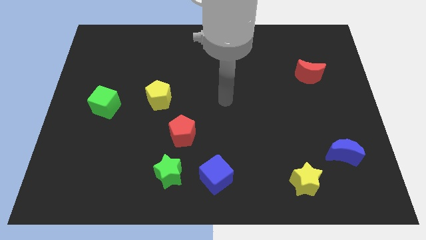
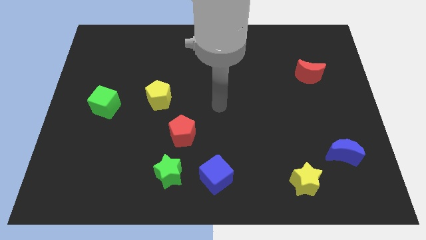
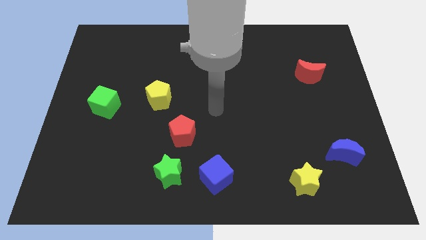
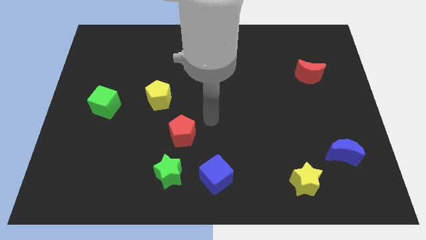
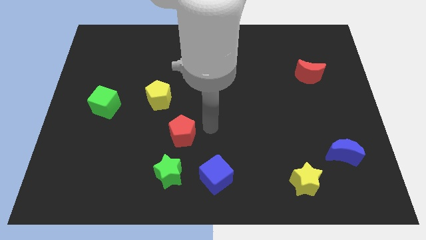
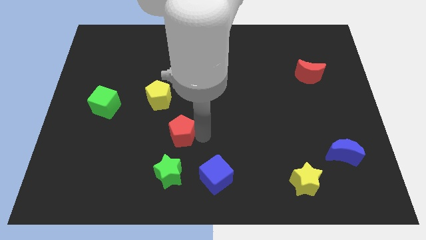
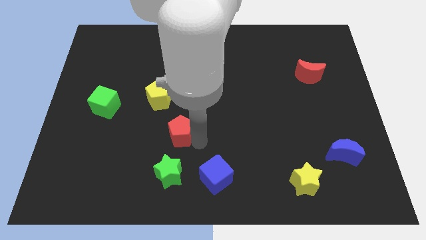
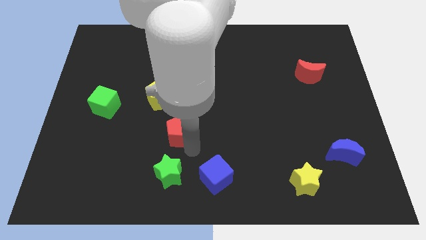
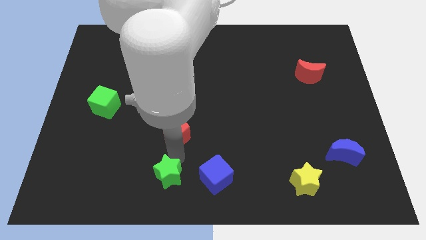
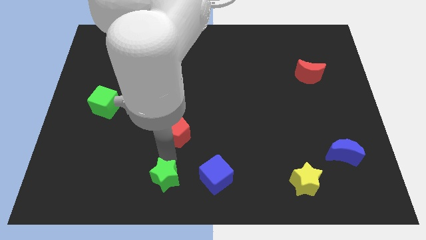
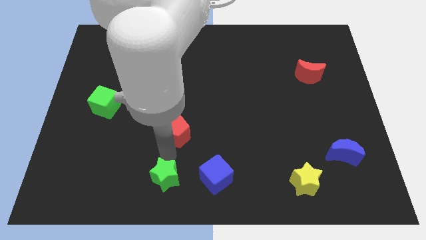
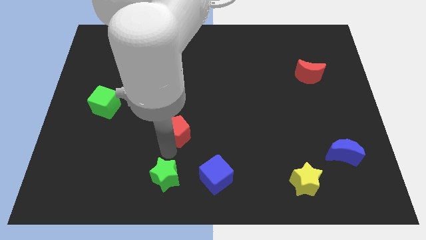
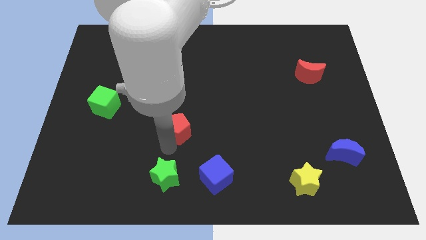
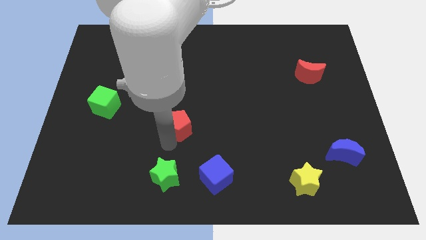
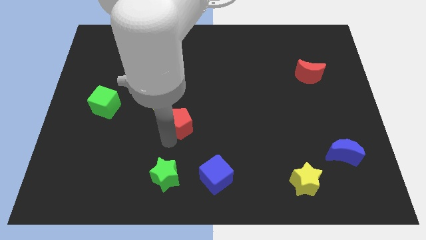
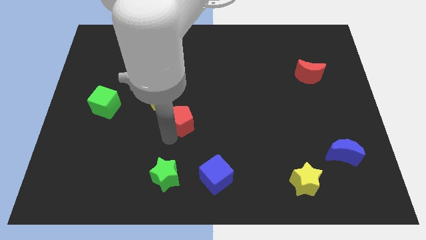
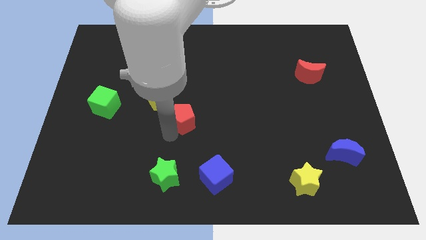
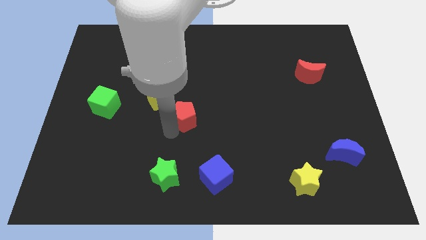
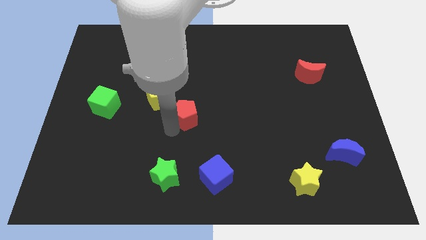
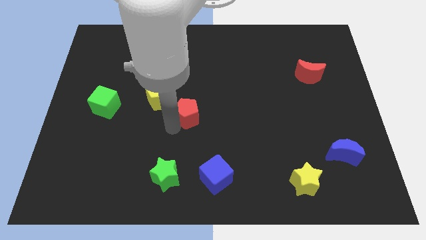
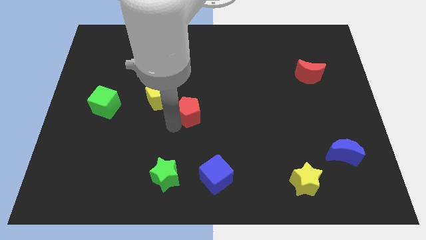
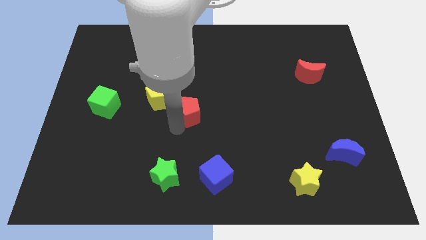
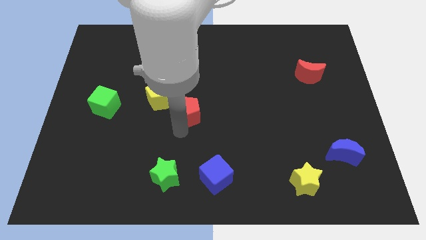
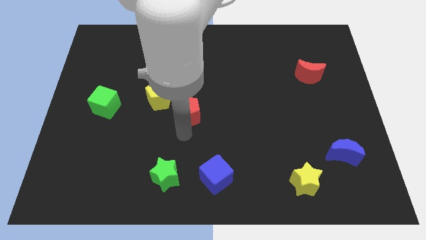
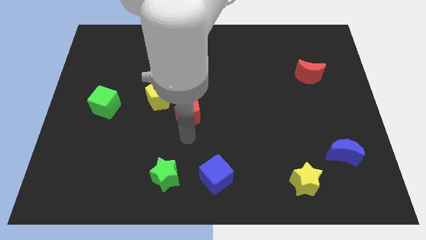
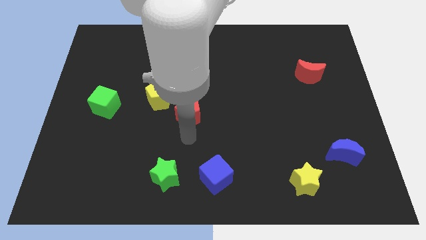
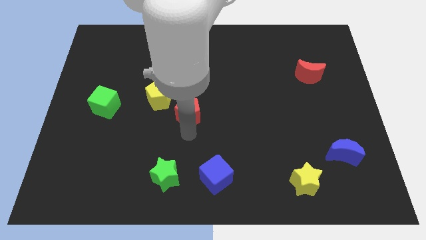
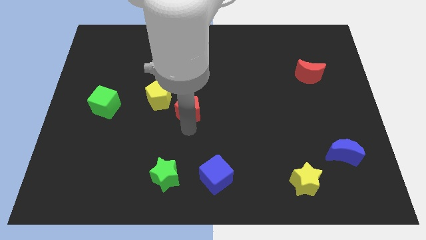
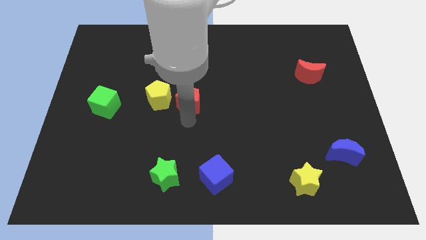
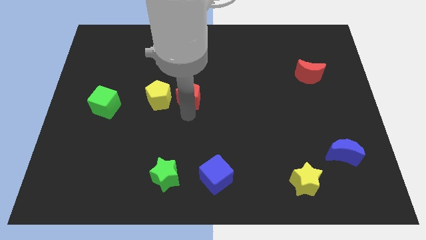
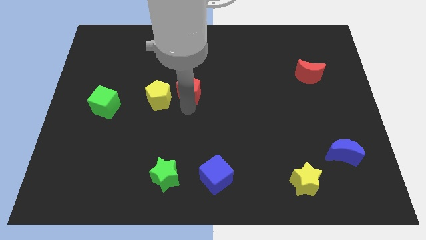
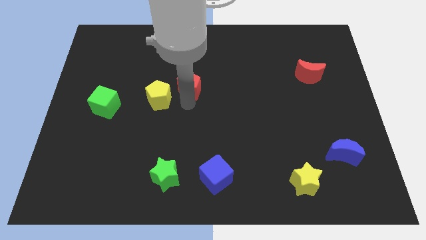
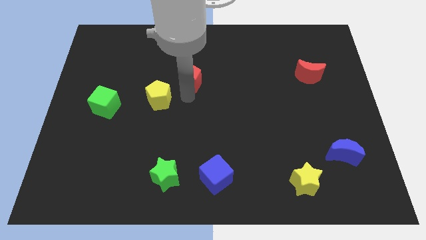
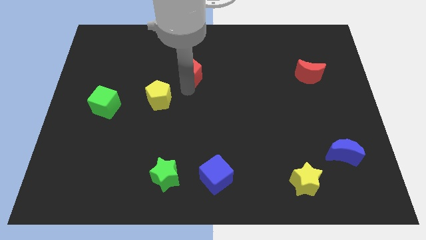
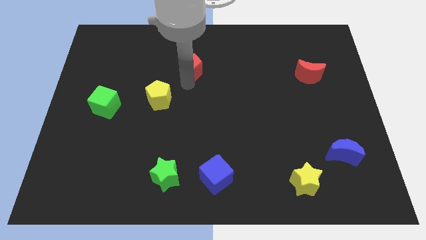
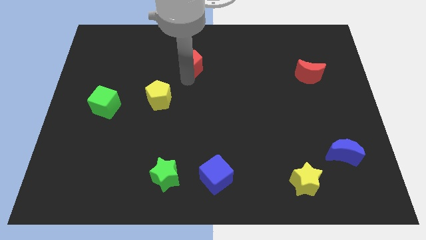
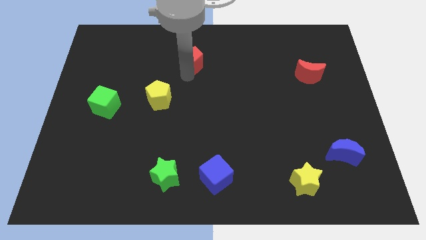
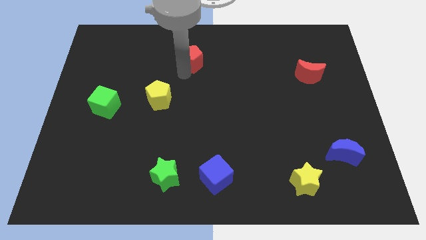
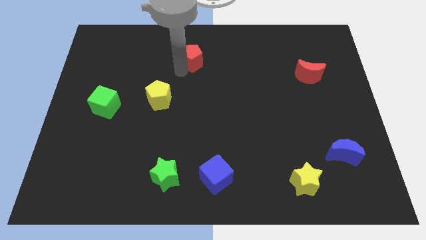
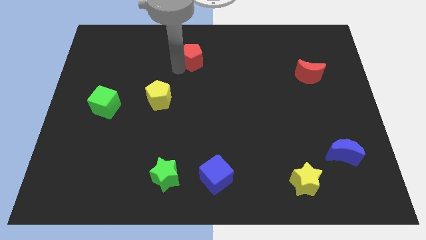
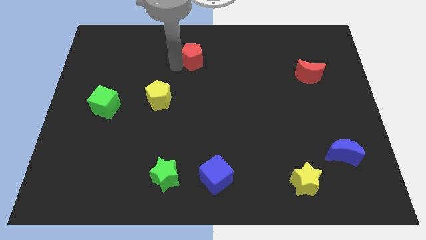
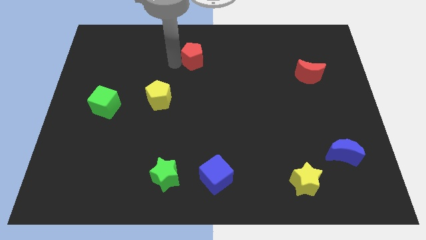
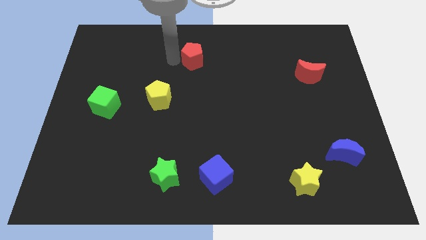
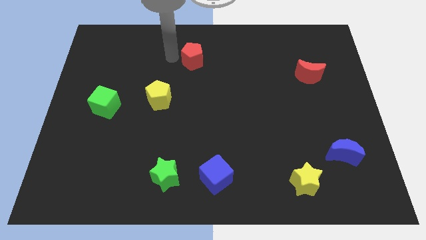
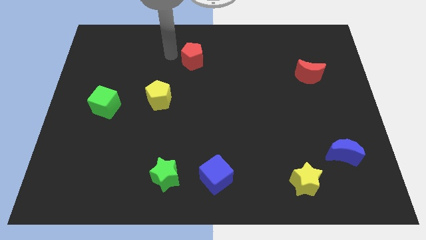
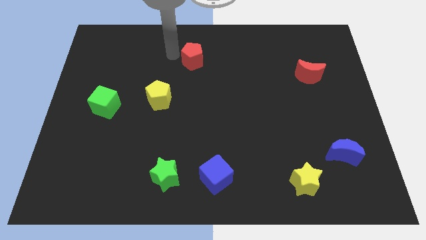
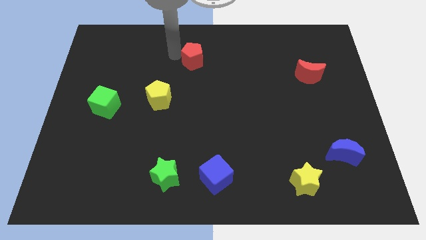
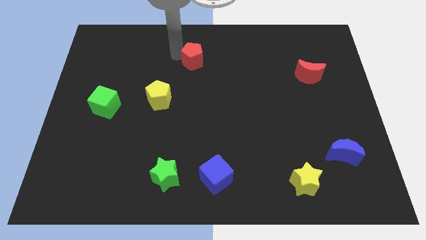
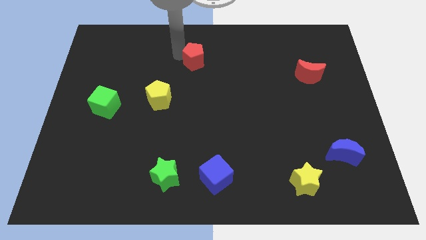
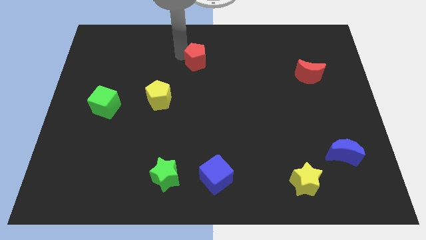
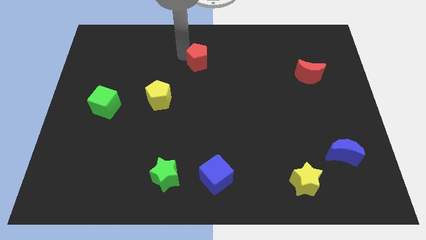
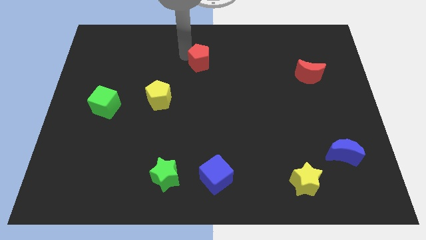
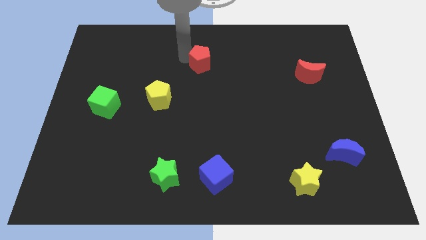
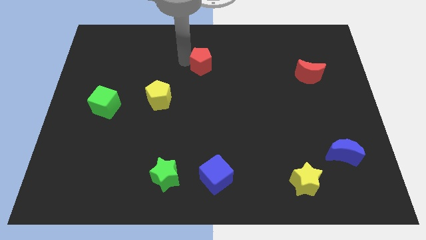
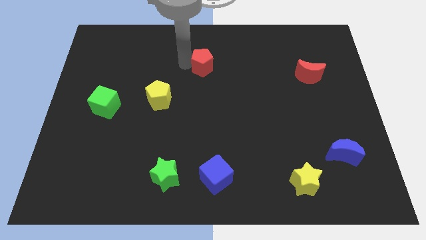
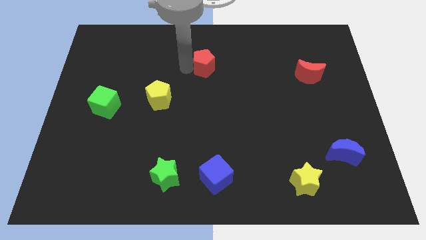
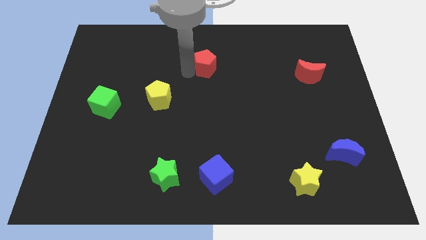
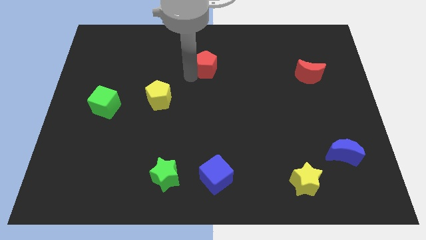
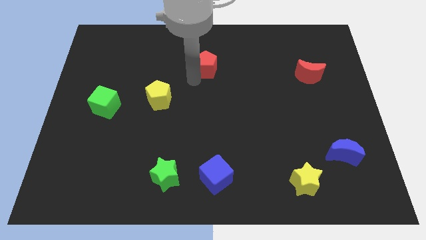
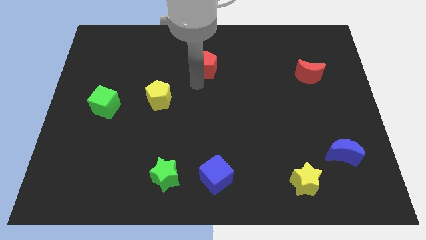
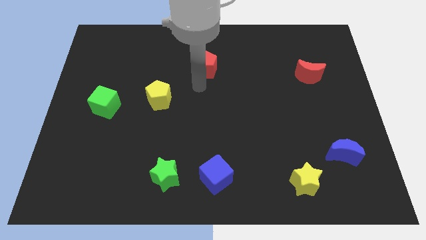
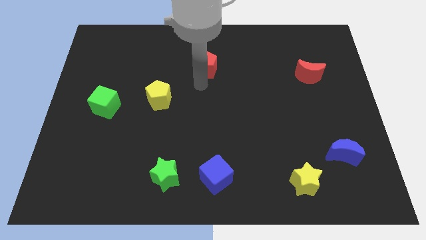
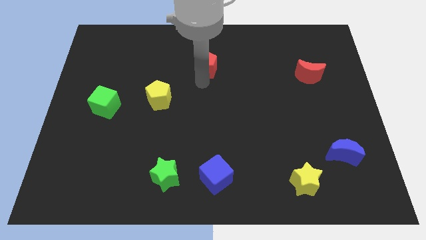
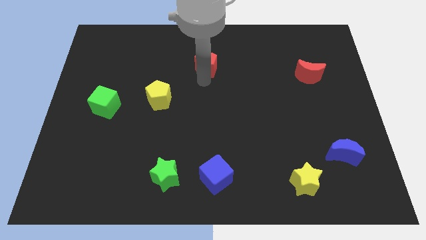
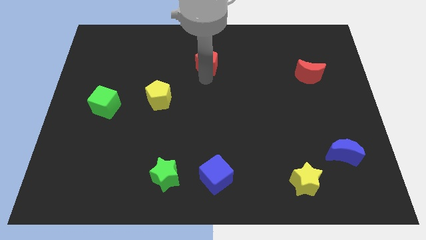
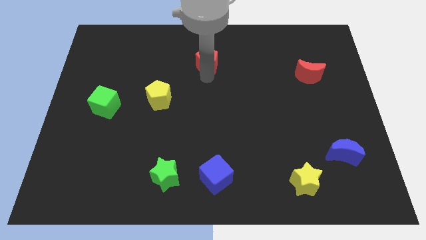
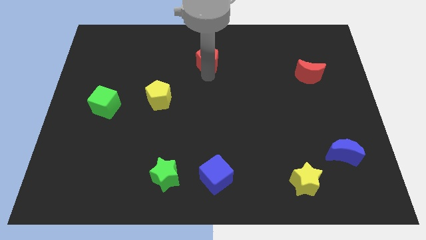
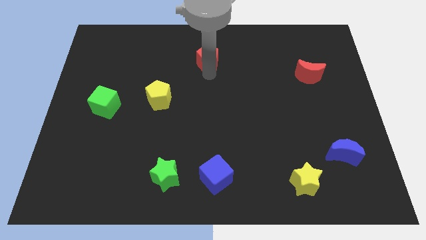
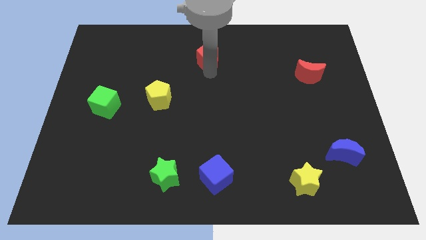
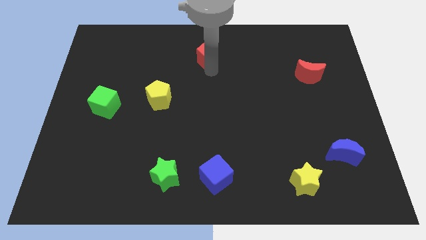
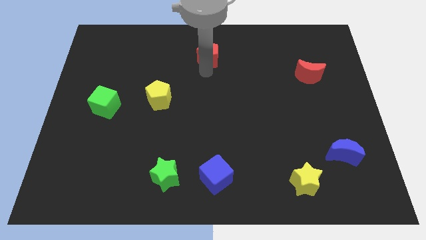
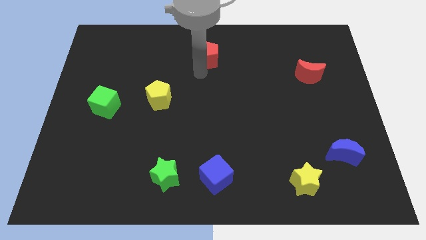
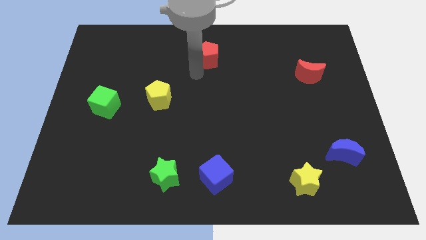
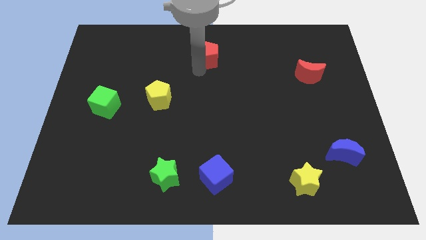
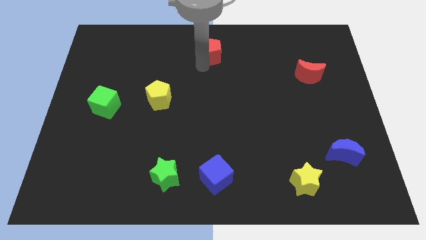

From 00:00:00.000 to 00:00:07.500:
push the red pentagon to the top
